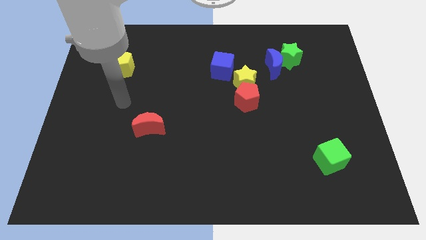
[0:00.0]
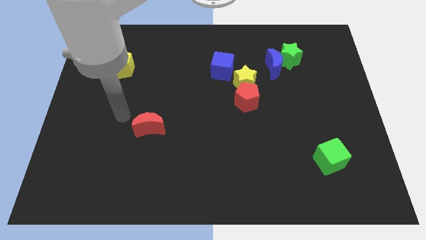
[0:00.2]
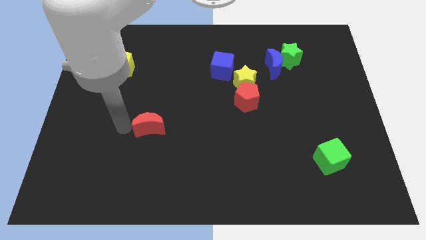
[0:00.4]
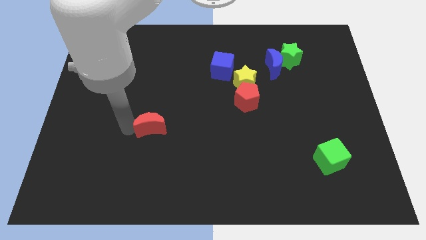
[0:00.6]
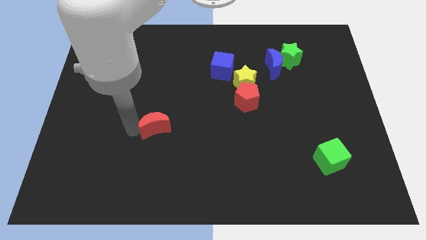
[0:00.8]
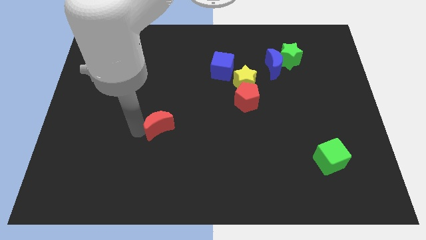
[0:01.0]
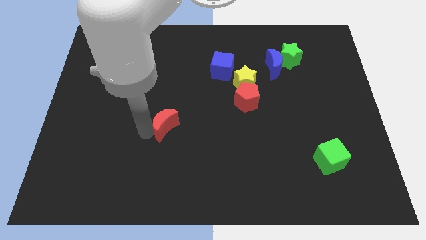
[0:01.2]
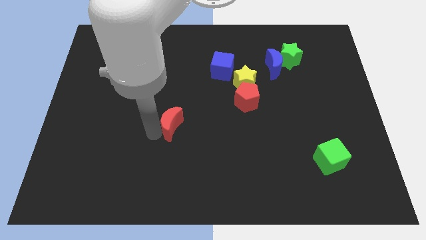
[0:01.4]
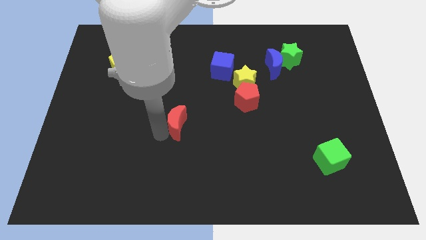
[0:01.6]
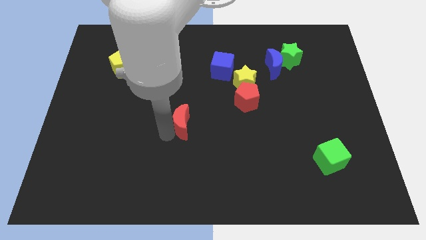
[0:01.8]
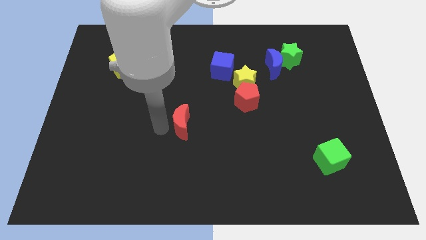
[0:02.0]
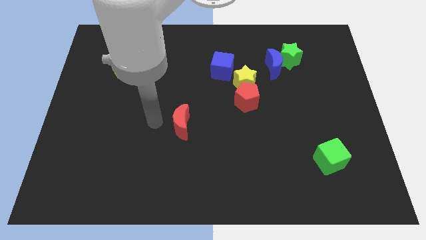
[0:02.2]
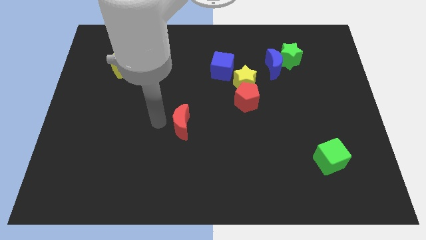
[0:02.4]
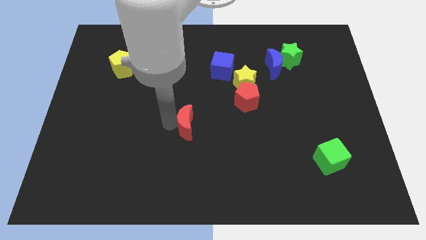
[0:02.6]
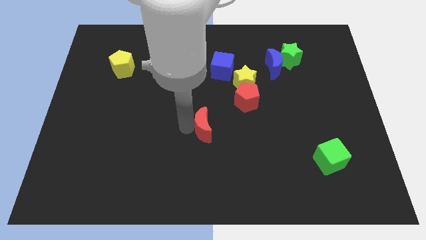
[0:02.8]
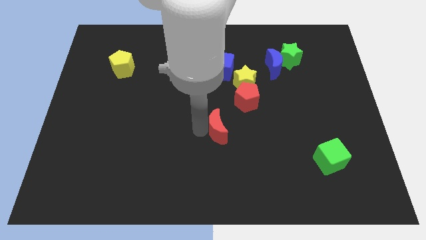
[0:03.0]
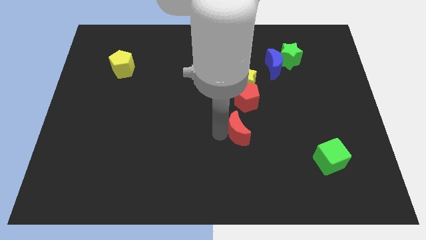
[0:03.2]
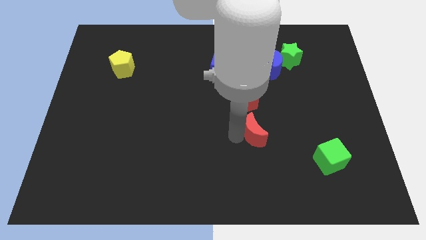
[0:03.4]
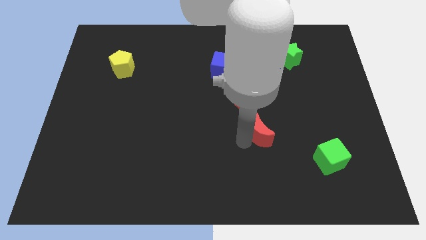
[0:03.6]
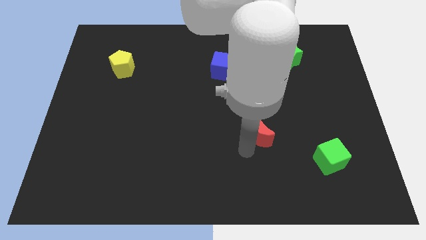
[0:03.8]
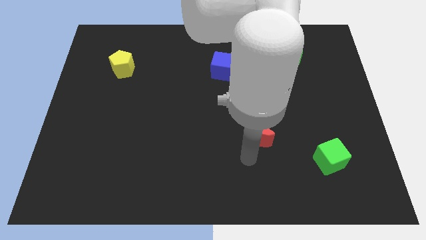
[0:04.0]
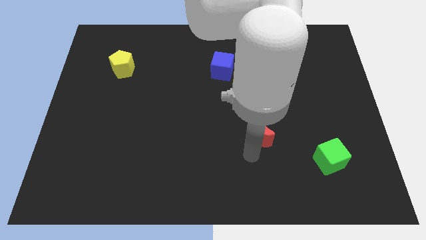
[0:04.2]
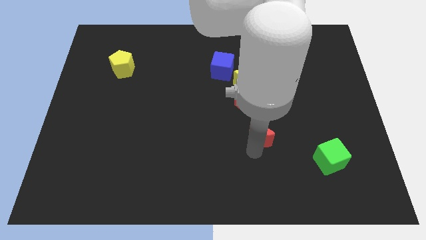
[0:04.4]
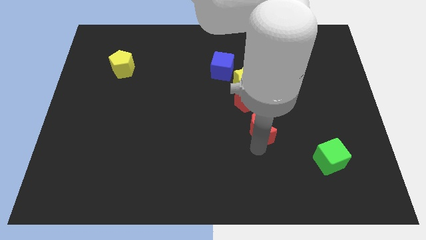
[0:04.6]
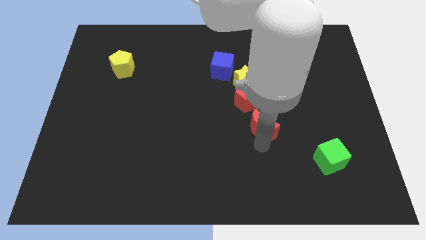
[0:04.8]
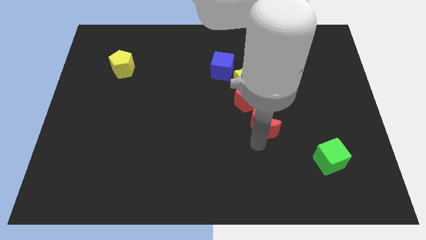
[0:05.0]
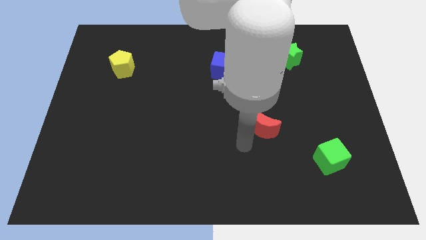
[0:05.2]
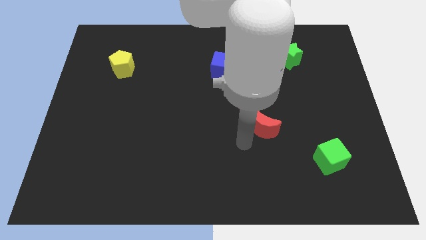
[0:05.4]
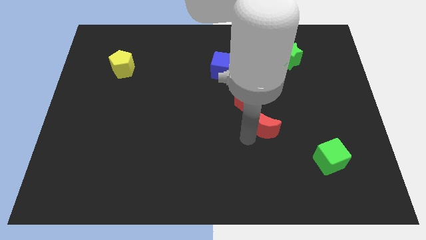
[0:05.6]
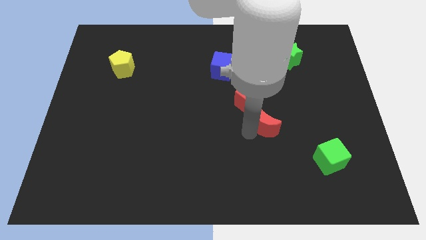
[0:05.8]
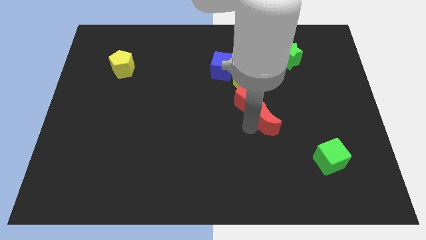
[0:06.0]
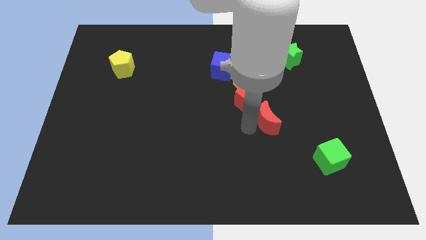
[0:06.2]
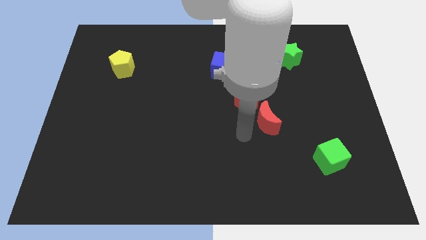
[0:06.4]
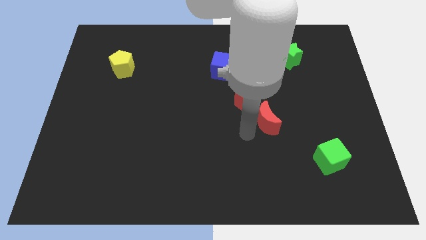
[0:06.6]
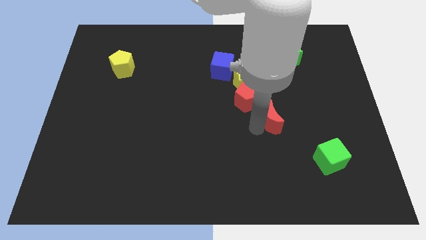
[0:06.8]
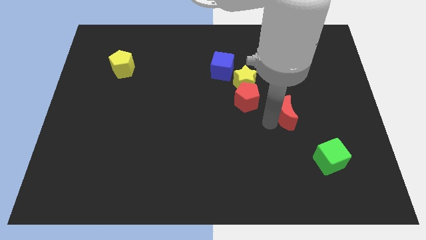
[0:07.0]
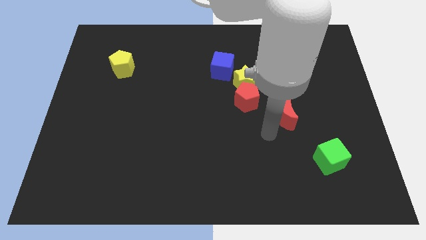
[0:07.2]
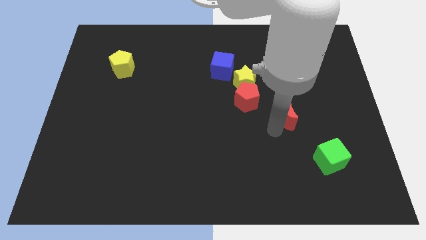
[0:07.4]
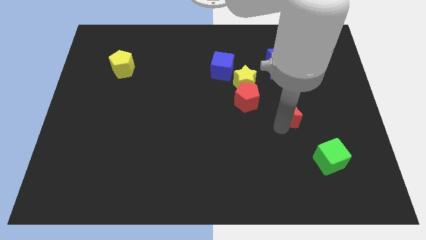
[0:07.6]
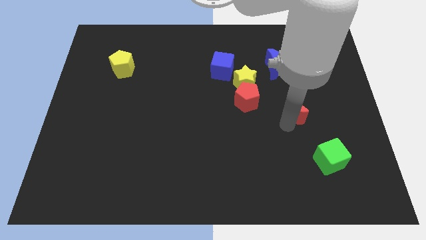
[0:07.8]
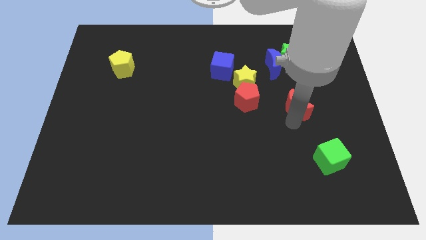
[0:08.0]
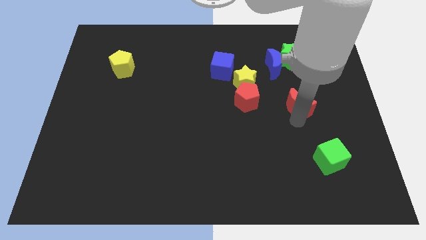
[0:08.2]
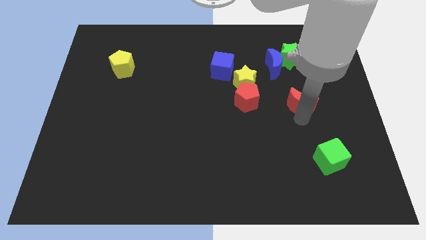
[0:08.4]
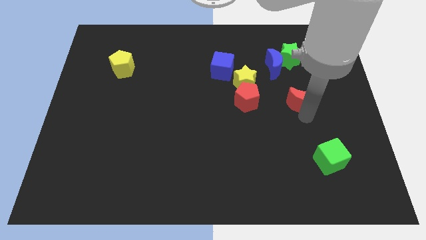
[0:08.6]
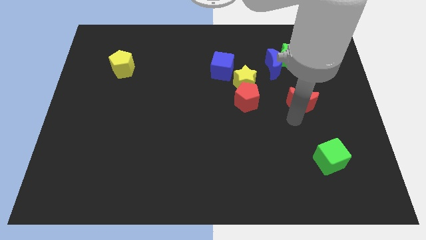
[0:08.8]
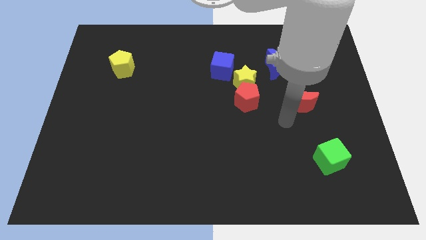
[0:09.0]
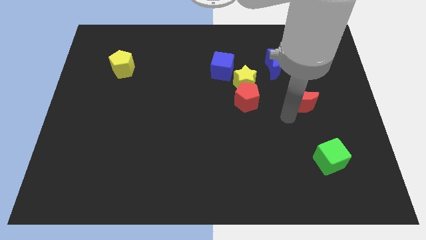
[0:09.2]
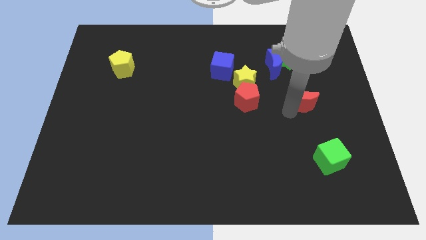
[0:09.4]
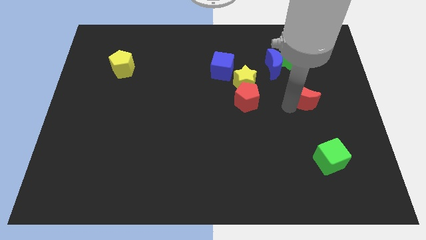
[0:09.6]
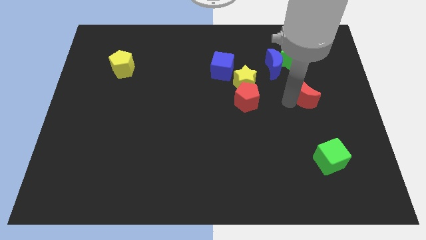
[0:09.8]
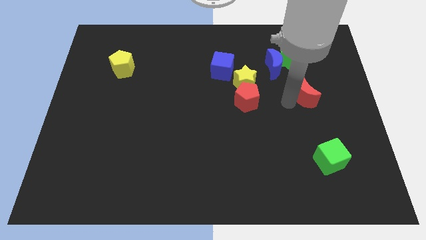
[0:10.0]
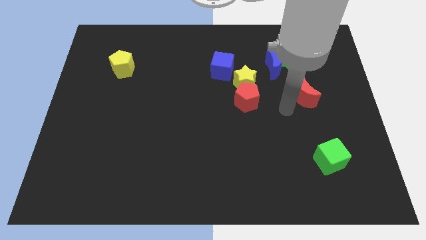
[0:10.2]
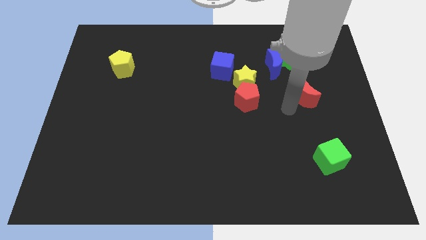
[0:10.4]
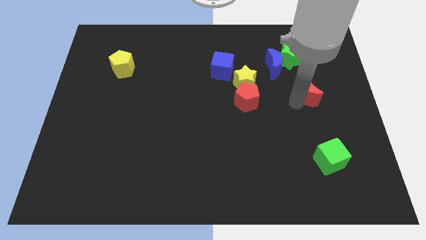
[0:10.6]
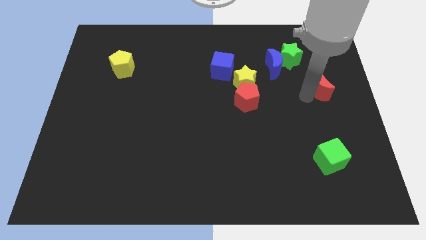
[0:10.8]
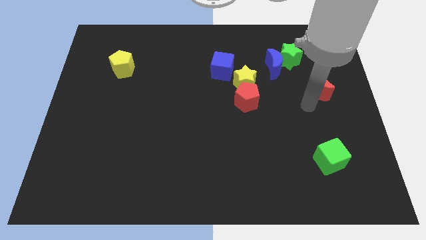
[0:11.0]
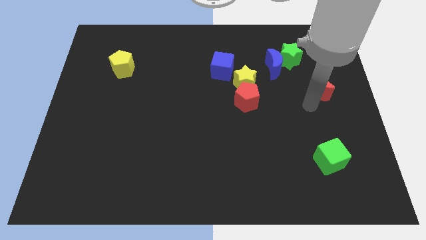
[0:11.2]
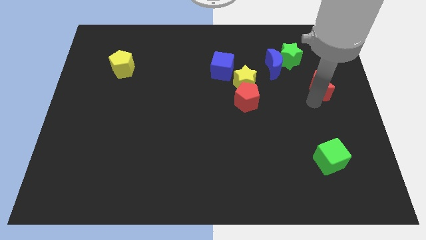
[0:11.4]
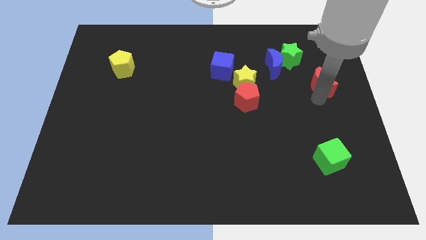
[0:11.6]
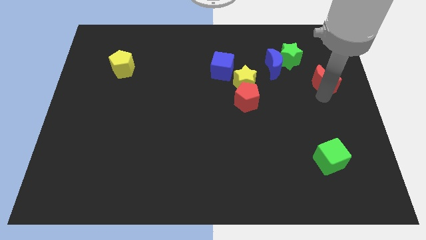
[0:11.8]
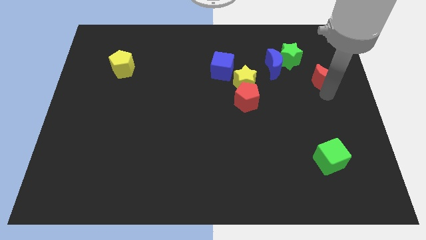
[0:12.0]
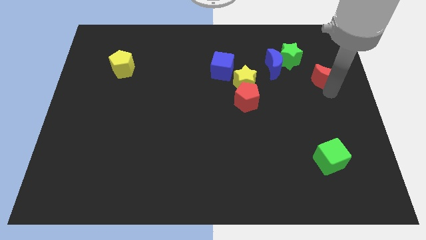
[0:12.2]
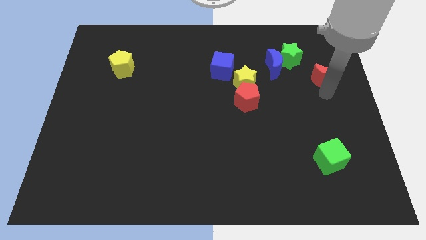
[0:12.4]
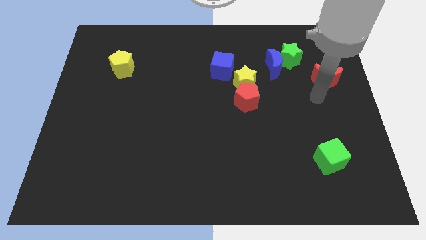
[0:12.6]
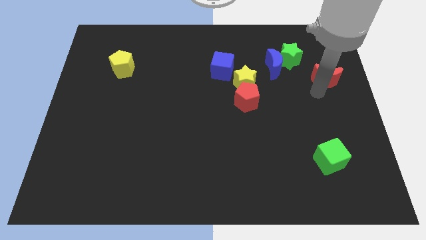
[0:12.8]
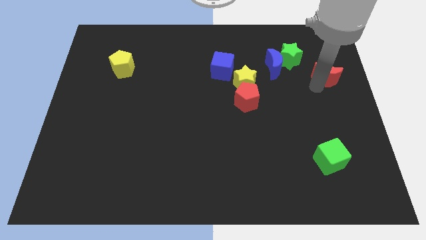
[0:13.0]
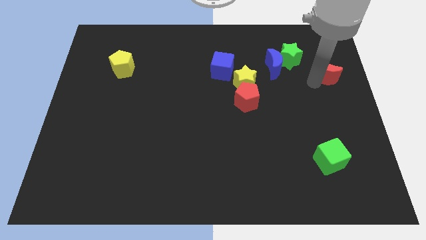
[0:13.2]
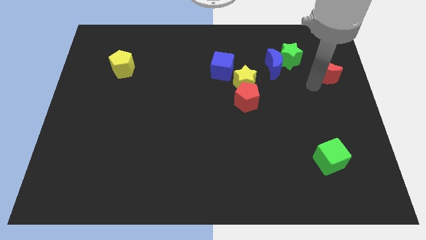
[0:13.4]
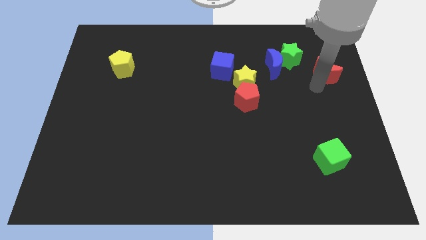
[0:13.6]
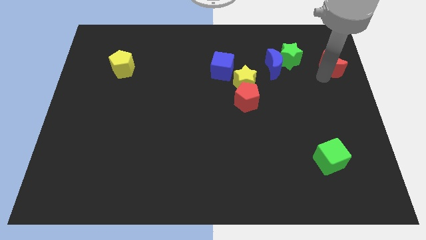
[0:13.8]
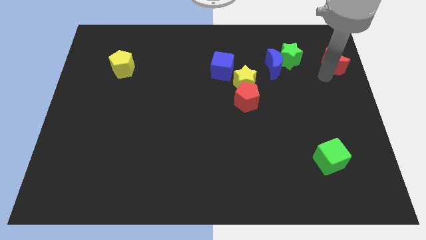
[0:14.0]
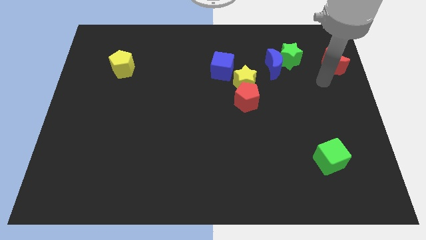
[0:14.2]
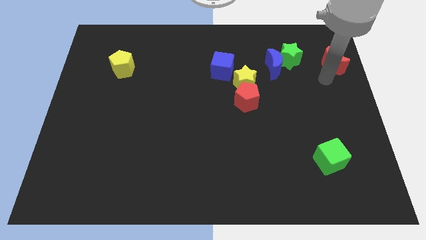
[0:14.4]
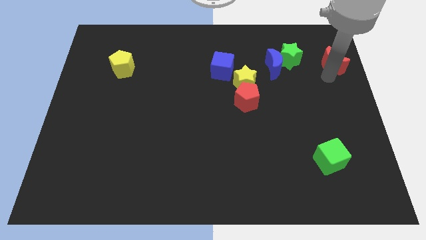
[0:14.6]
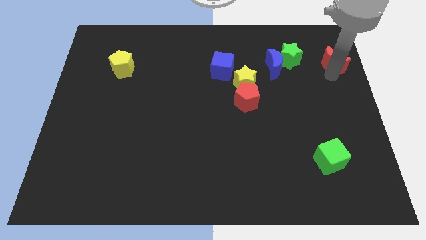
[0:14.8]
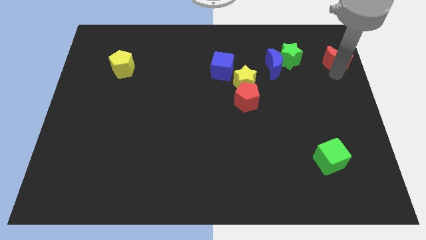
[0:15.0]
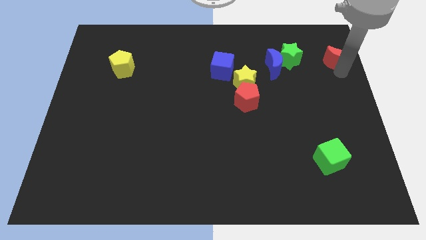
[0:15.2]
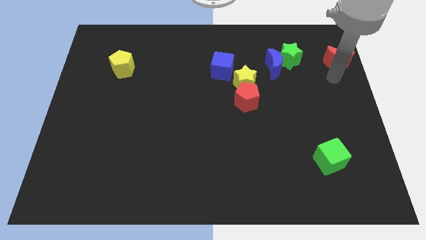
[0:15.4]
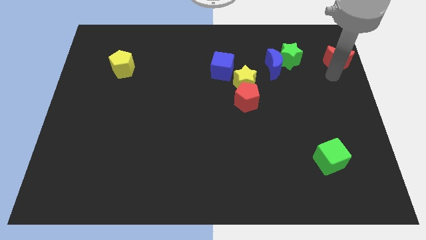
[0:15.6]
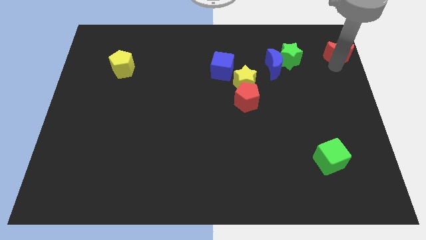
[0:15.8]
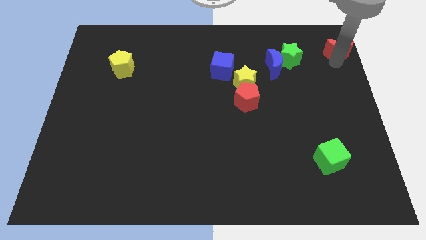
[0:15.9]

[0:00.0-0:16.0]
move the red moon to the top right of the board
